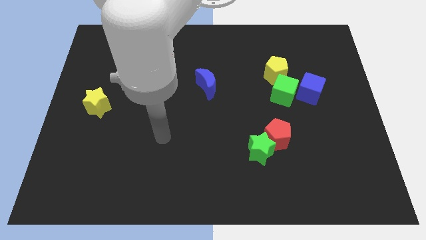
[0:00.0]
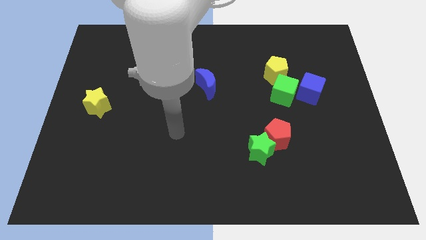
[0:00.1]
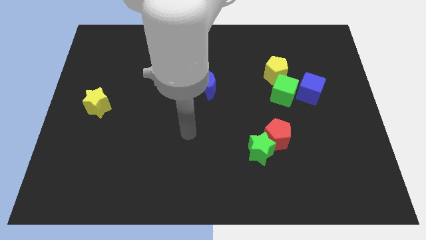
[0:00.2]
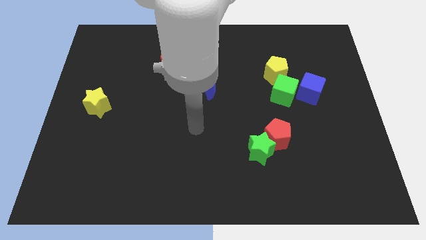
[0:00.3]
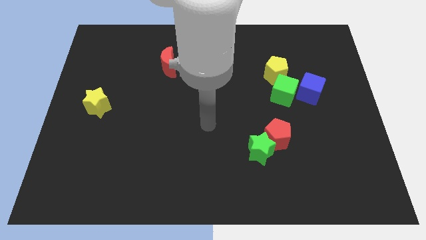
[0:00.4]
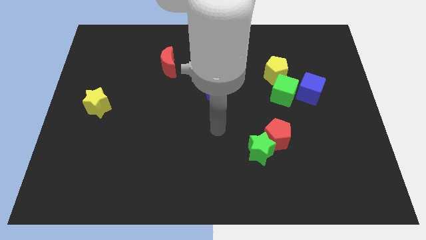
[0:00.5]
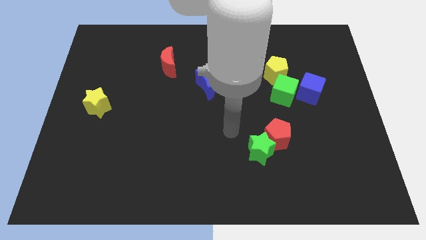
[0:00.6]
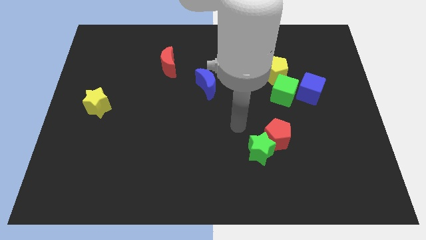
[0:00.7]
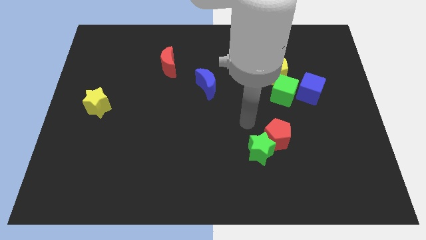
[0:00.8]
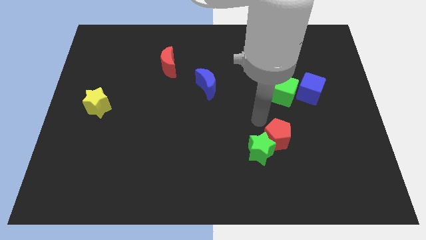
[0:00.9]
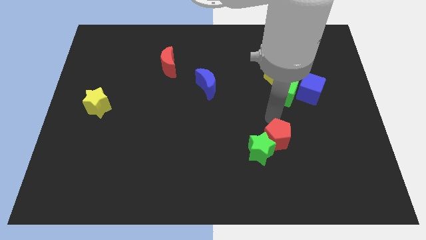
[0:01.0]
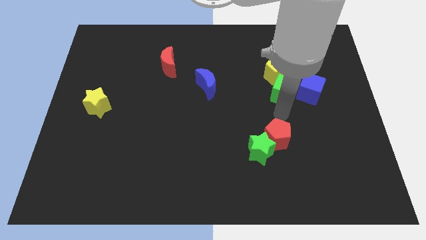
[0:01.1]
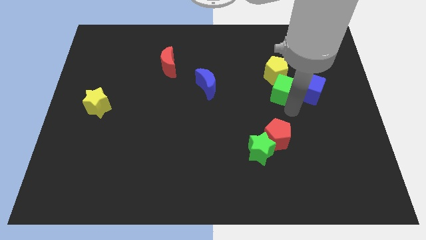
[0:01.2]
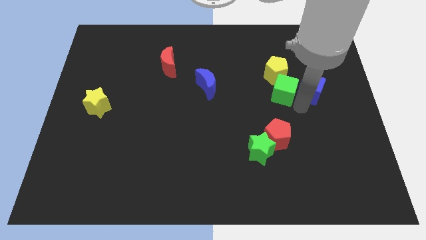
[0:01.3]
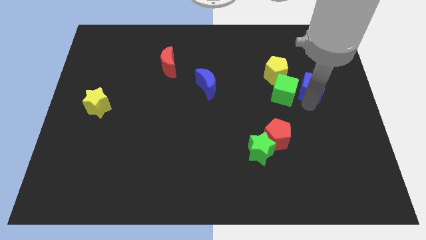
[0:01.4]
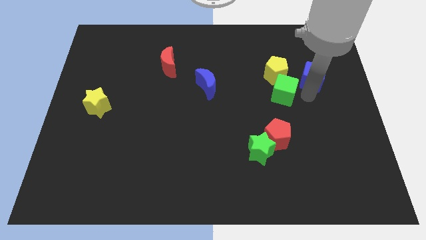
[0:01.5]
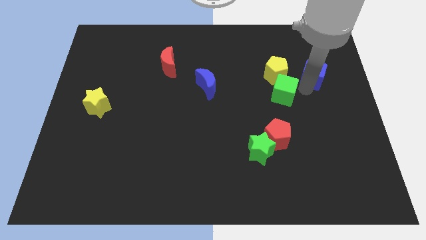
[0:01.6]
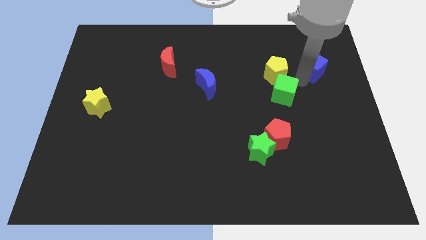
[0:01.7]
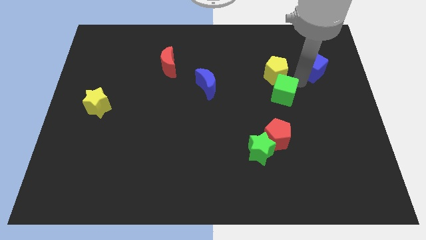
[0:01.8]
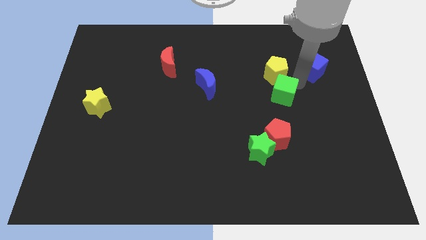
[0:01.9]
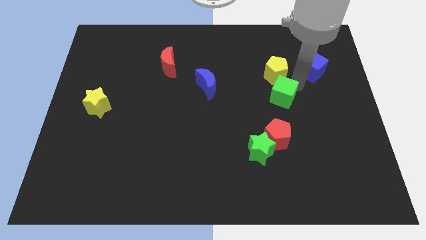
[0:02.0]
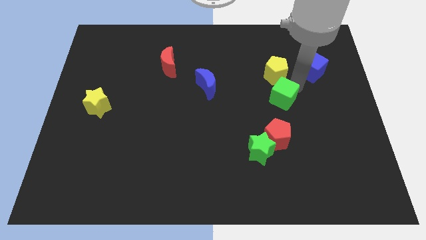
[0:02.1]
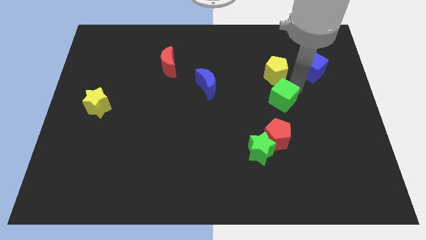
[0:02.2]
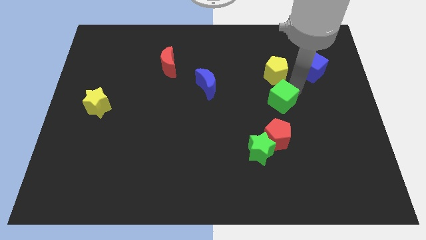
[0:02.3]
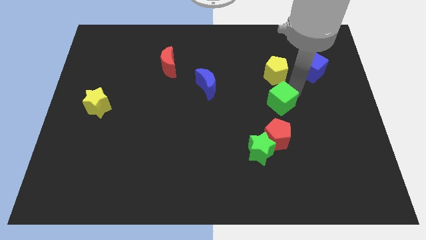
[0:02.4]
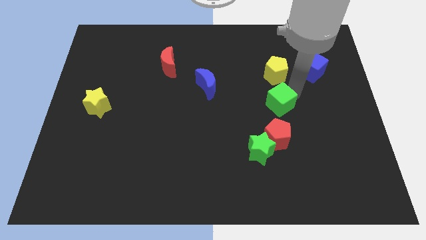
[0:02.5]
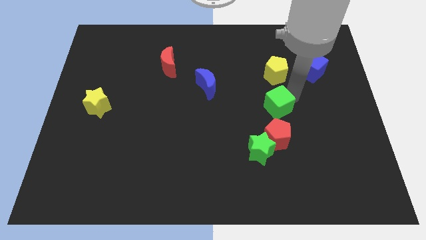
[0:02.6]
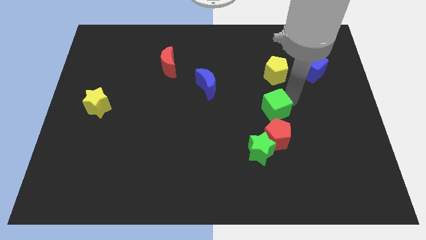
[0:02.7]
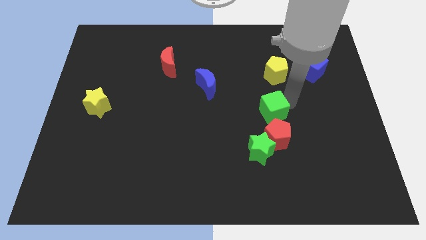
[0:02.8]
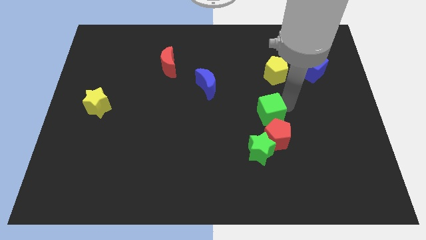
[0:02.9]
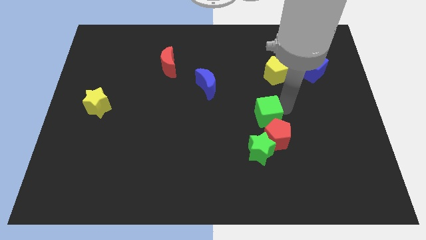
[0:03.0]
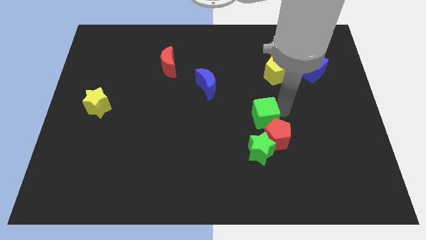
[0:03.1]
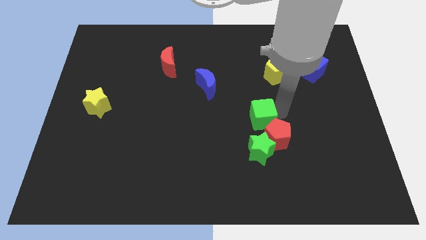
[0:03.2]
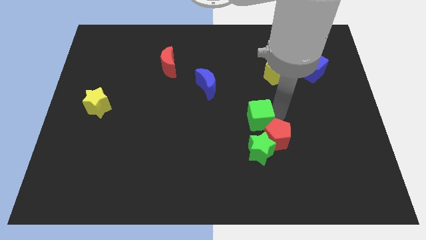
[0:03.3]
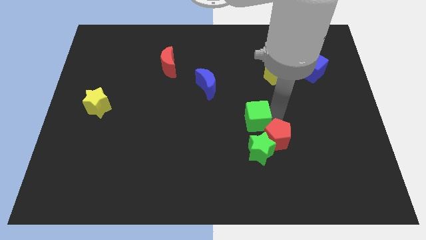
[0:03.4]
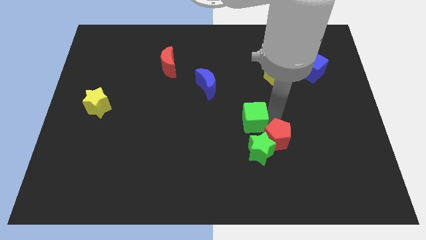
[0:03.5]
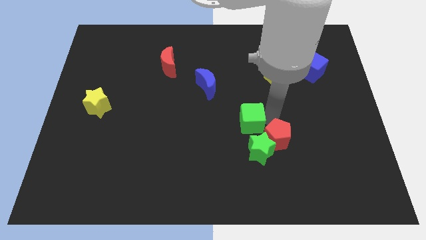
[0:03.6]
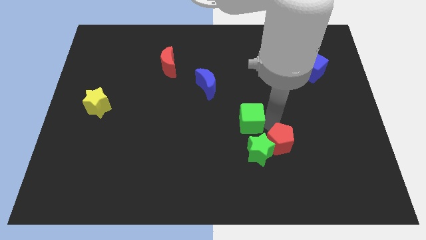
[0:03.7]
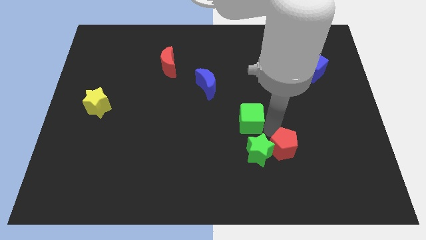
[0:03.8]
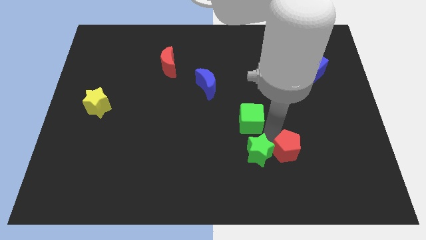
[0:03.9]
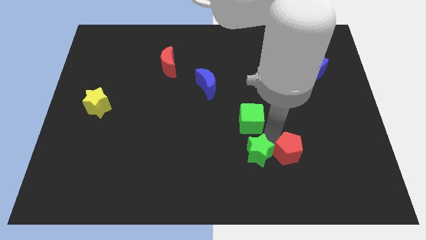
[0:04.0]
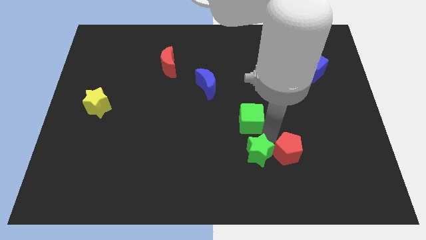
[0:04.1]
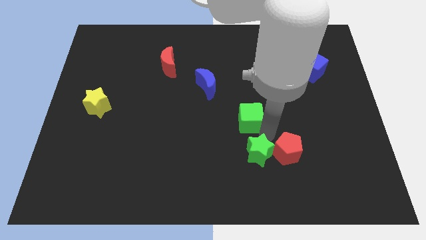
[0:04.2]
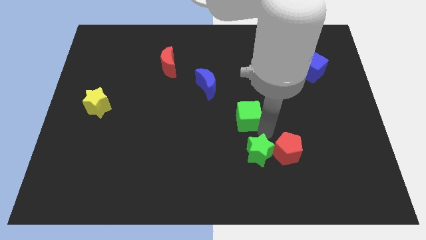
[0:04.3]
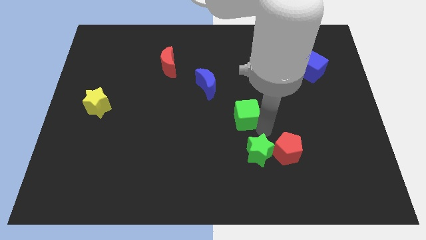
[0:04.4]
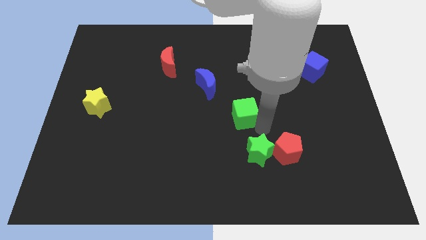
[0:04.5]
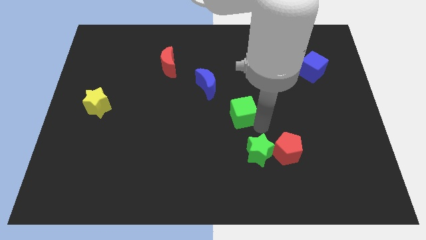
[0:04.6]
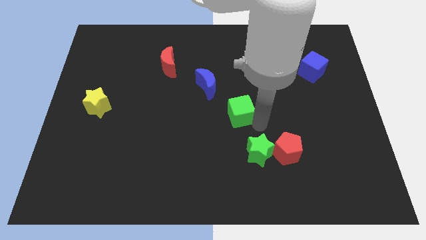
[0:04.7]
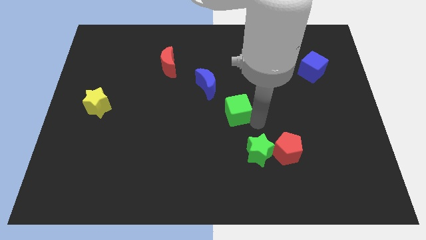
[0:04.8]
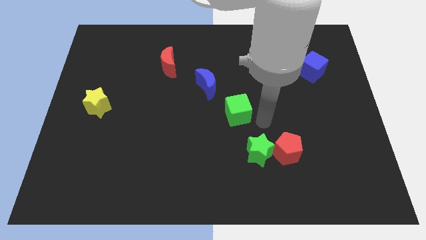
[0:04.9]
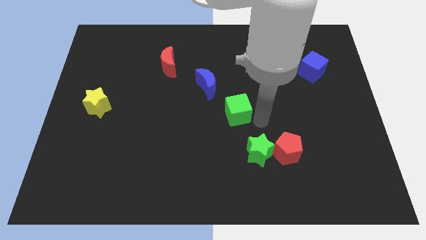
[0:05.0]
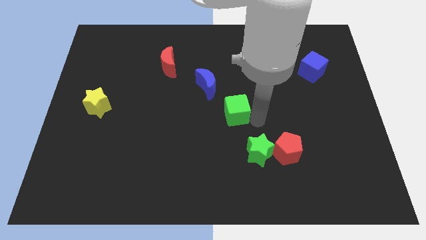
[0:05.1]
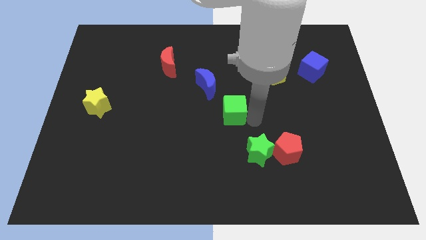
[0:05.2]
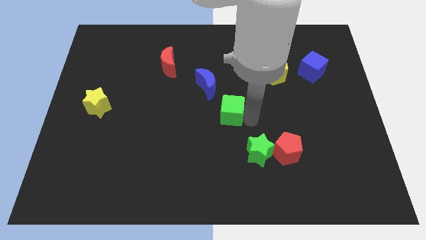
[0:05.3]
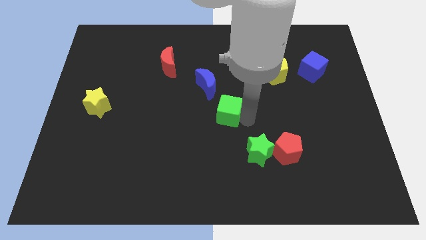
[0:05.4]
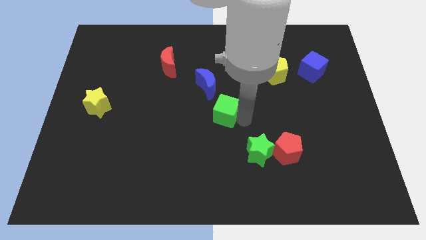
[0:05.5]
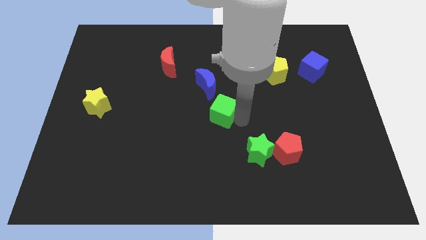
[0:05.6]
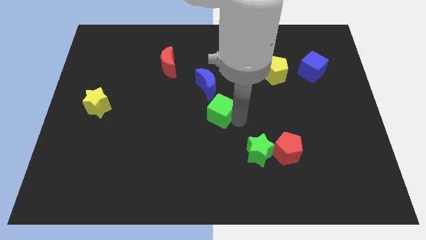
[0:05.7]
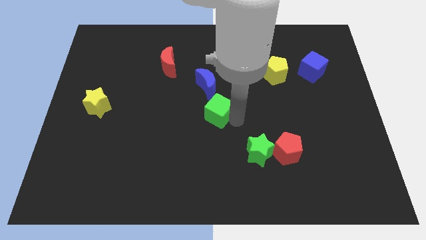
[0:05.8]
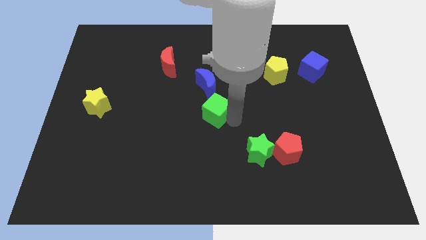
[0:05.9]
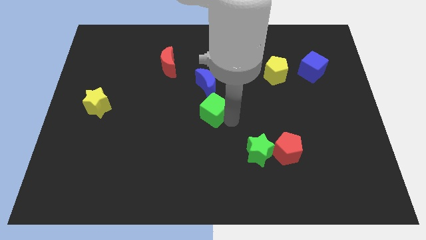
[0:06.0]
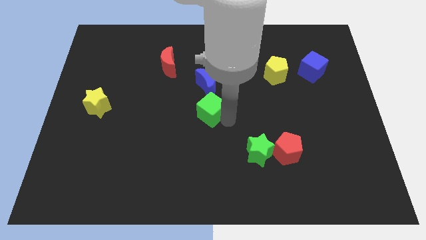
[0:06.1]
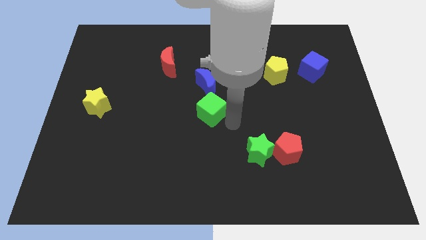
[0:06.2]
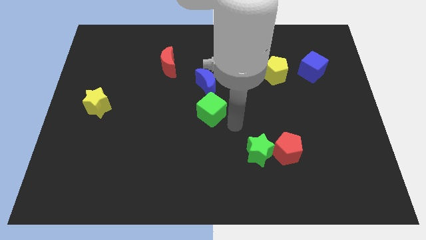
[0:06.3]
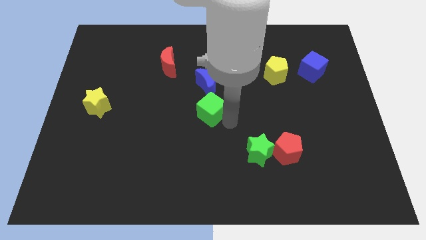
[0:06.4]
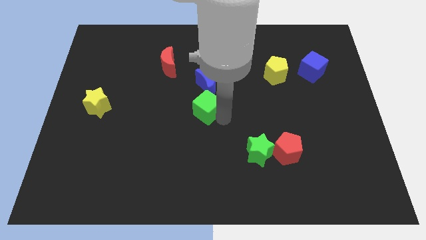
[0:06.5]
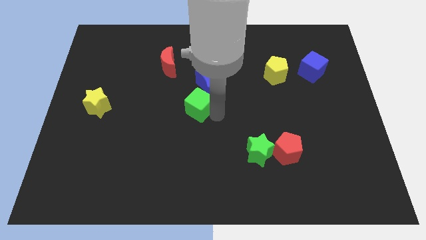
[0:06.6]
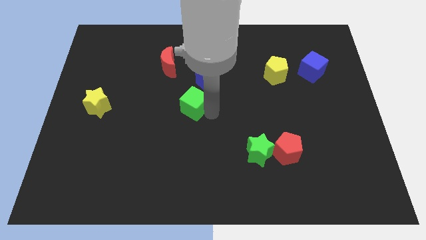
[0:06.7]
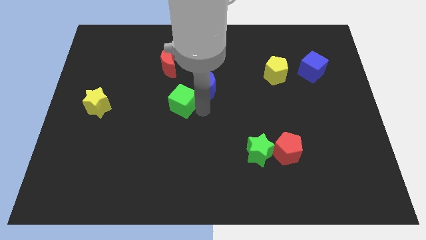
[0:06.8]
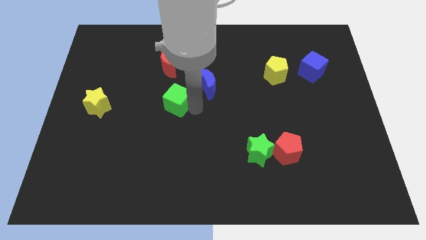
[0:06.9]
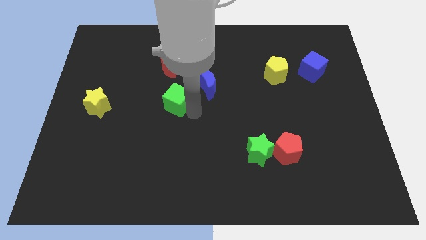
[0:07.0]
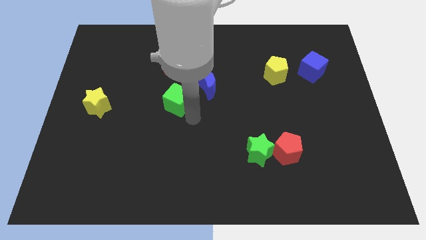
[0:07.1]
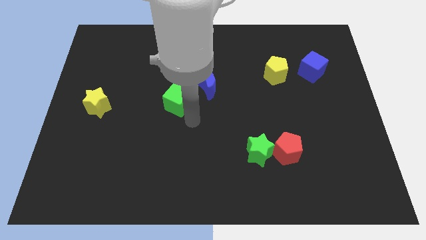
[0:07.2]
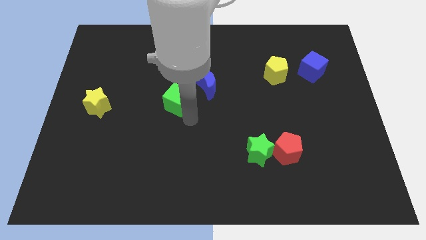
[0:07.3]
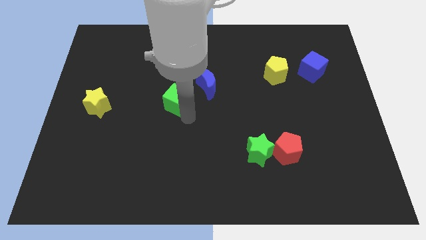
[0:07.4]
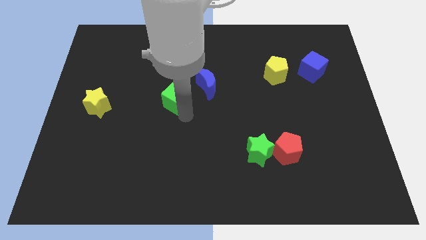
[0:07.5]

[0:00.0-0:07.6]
put the green cube to the left of the blue moon

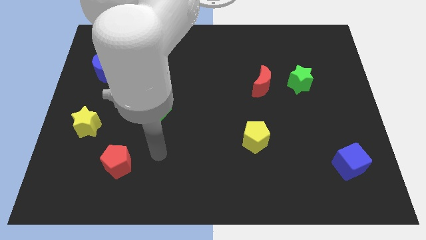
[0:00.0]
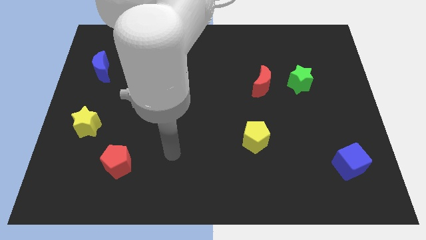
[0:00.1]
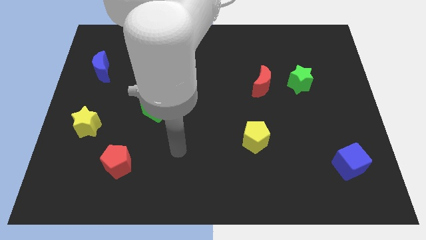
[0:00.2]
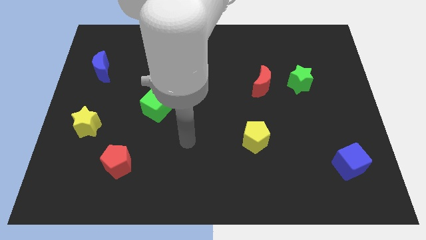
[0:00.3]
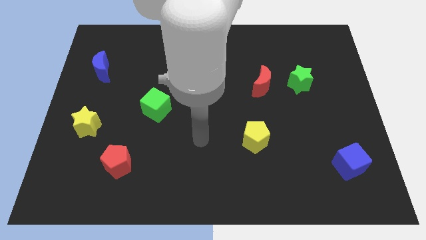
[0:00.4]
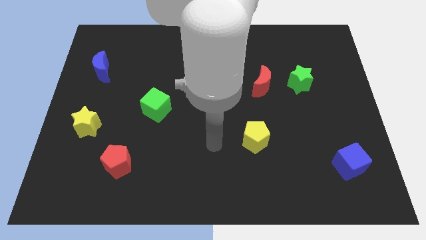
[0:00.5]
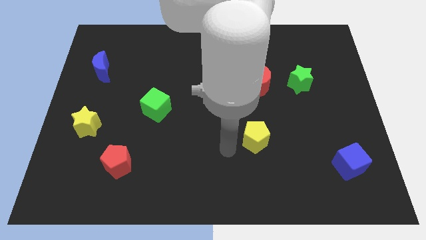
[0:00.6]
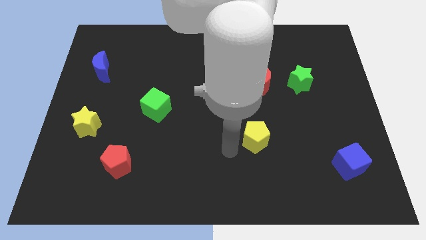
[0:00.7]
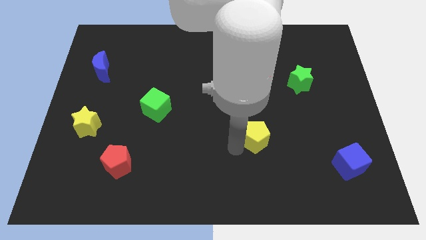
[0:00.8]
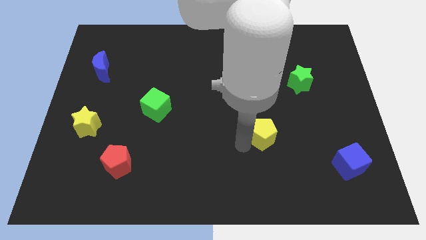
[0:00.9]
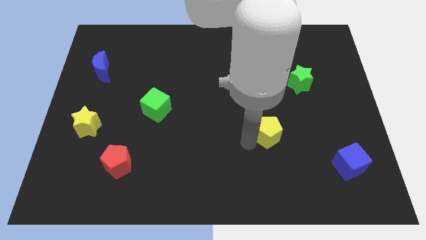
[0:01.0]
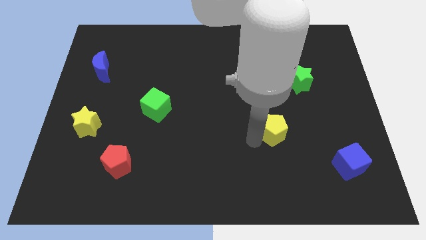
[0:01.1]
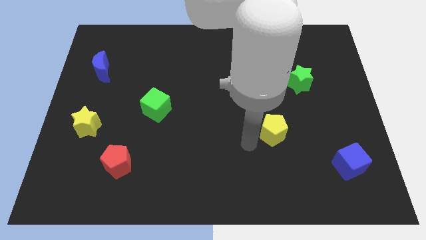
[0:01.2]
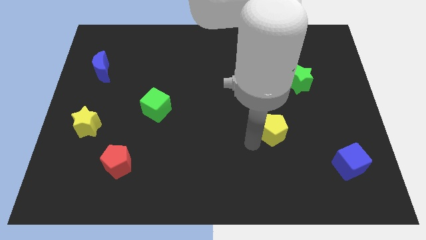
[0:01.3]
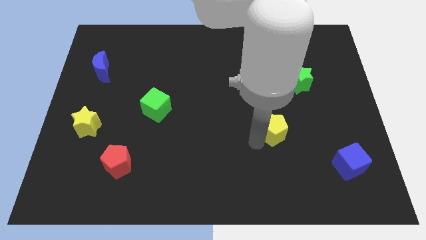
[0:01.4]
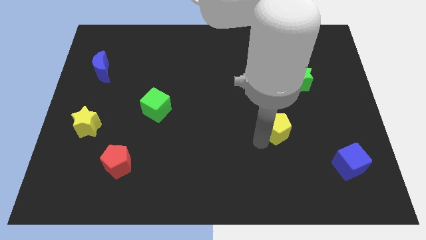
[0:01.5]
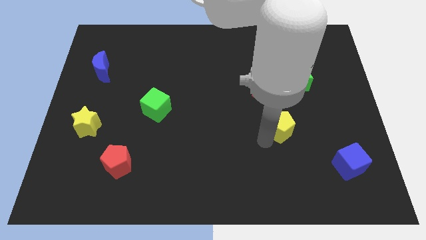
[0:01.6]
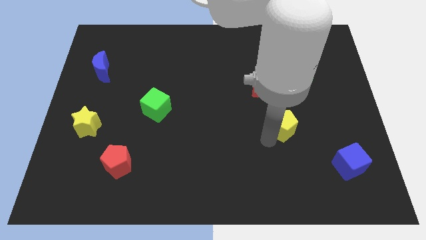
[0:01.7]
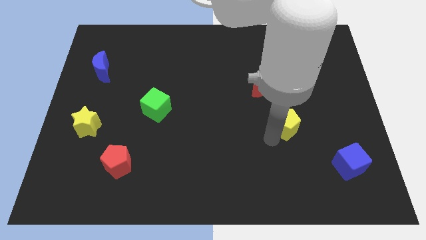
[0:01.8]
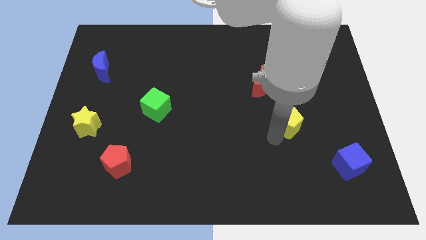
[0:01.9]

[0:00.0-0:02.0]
move the yellow pentagon to the bottom of the green star
